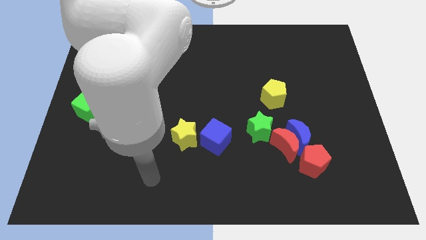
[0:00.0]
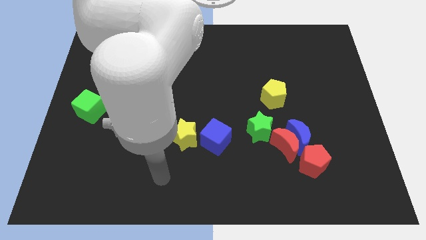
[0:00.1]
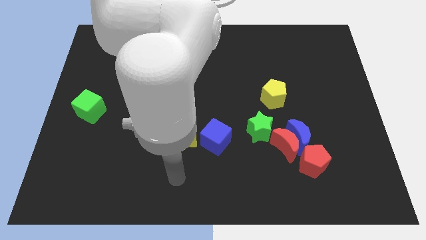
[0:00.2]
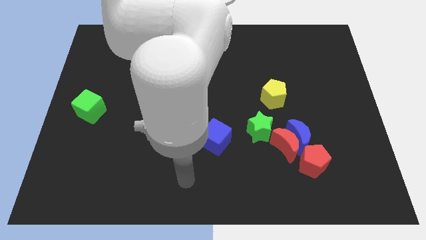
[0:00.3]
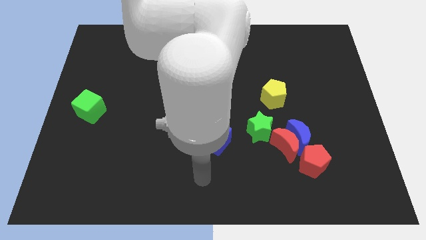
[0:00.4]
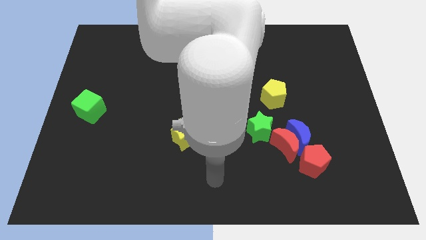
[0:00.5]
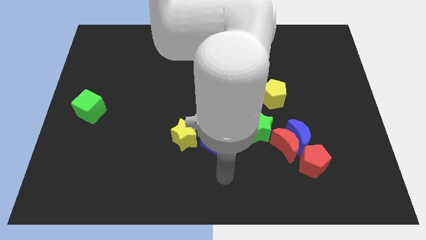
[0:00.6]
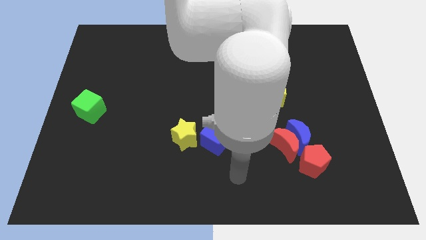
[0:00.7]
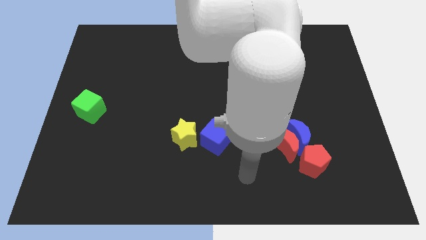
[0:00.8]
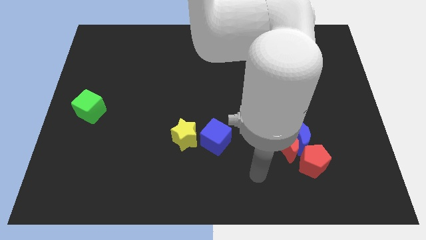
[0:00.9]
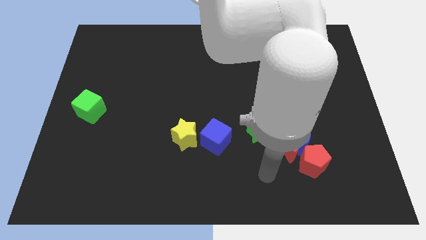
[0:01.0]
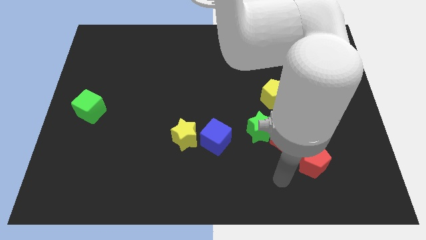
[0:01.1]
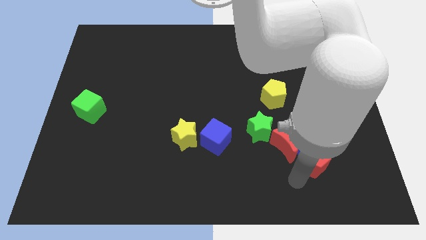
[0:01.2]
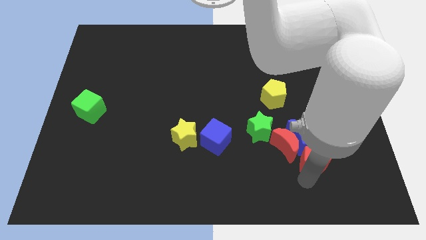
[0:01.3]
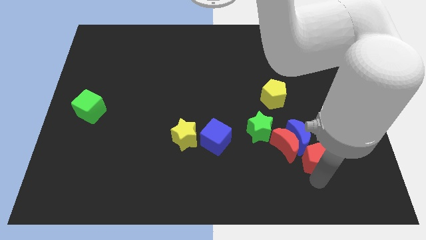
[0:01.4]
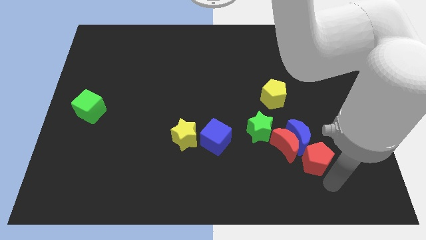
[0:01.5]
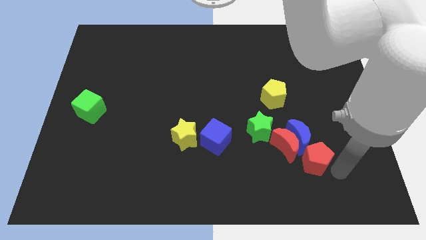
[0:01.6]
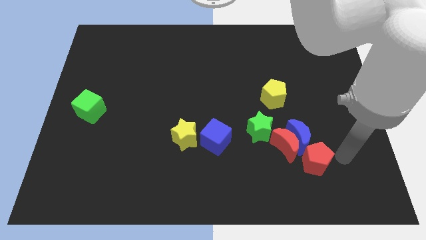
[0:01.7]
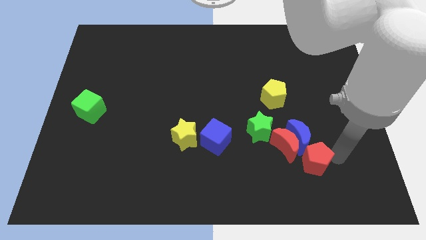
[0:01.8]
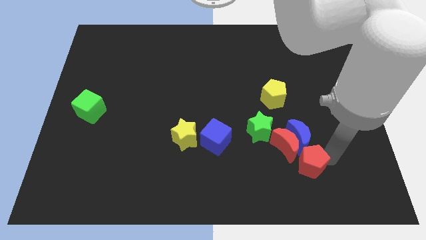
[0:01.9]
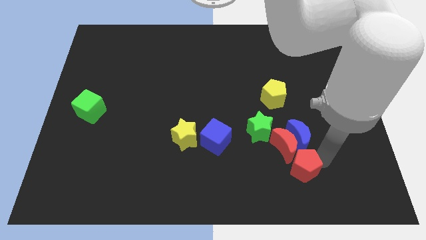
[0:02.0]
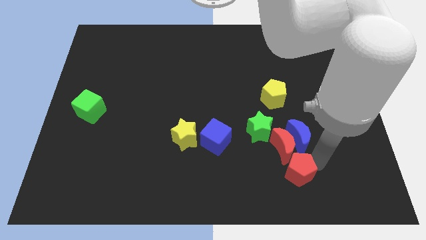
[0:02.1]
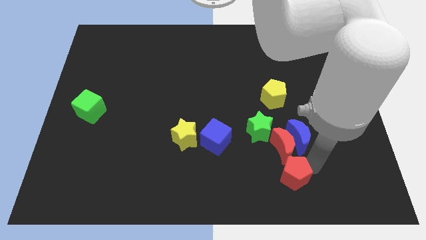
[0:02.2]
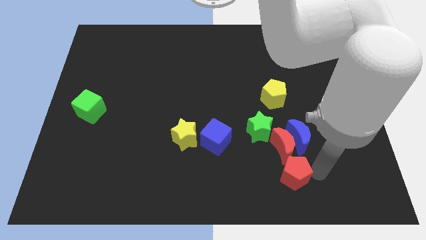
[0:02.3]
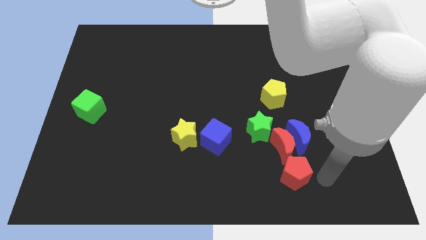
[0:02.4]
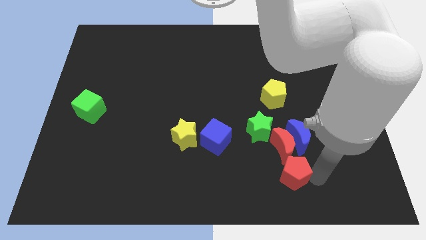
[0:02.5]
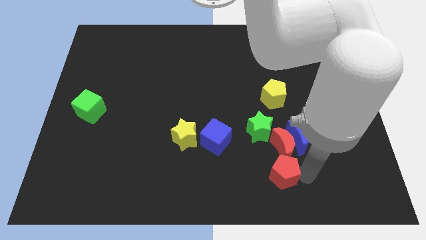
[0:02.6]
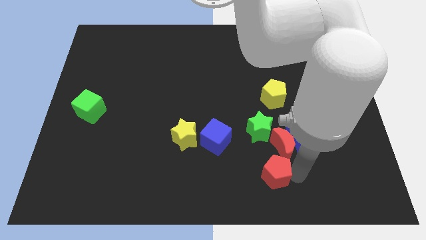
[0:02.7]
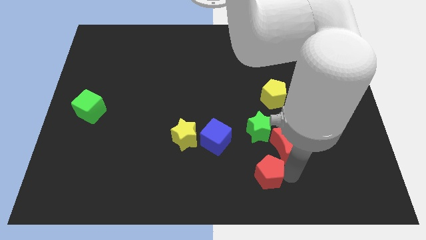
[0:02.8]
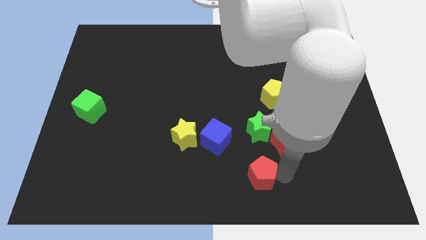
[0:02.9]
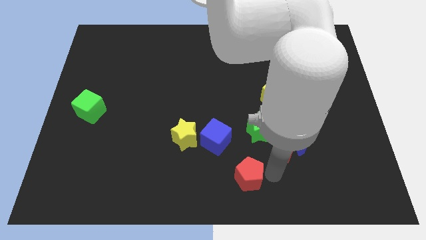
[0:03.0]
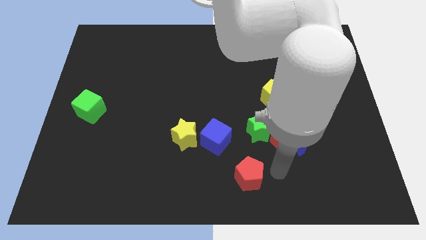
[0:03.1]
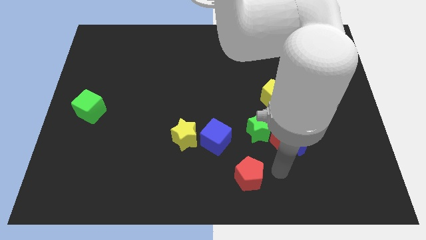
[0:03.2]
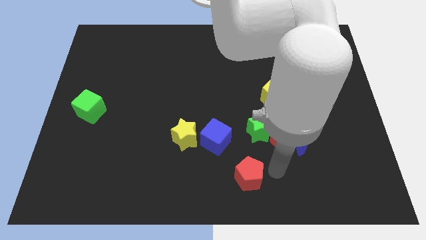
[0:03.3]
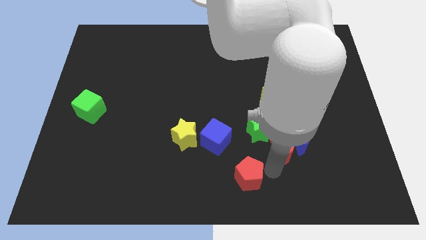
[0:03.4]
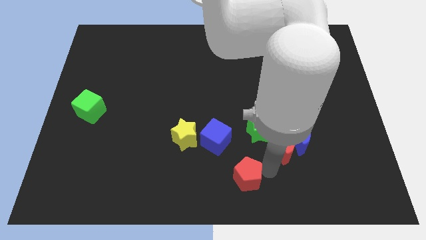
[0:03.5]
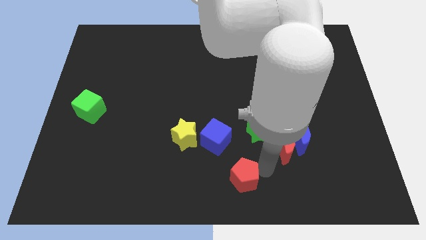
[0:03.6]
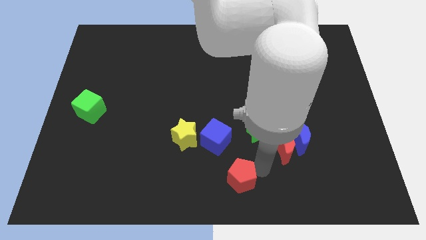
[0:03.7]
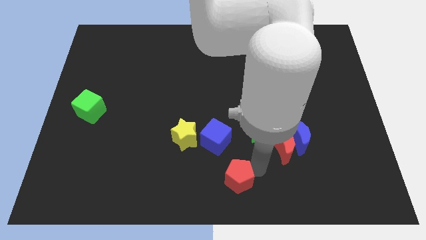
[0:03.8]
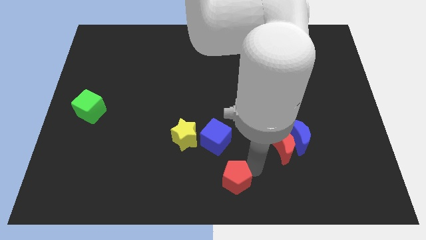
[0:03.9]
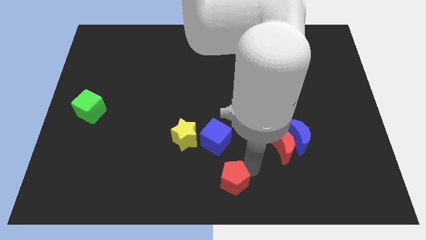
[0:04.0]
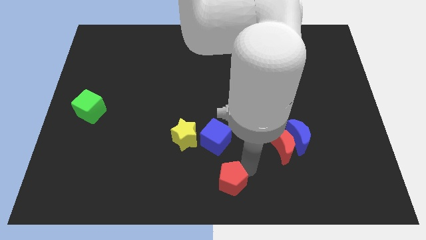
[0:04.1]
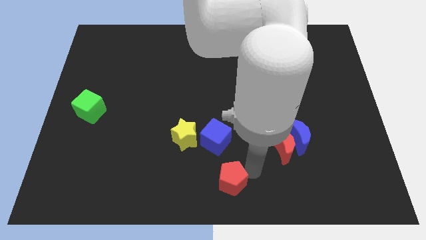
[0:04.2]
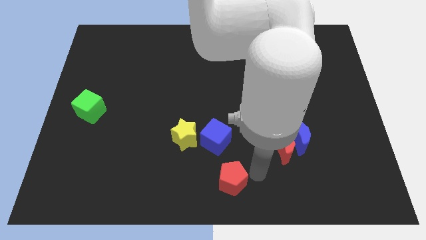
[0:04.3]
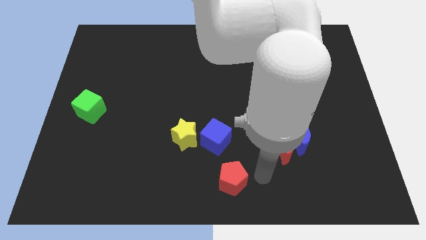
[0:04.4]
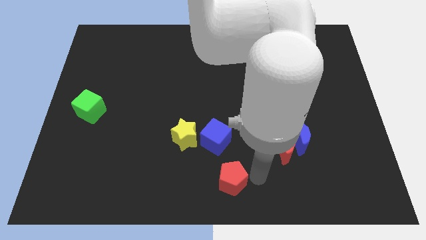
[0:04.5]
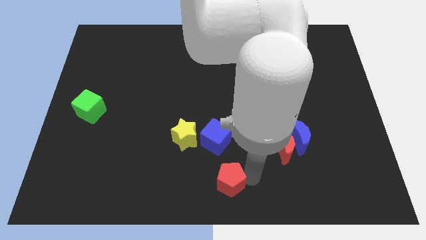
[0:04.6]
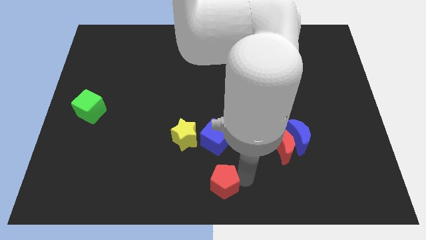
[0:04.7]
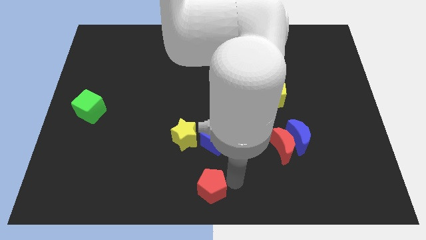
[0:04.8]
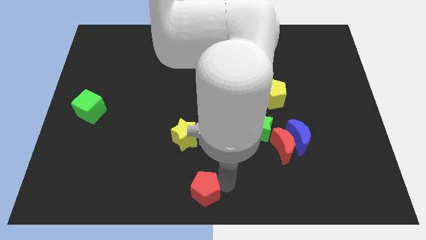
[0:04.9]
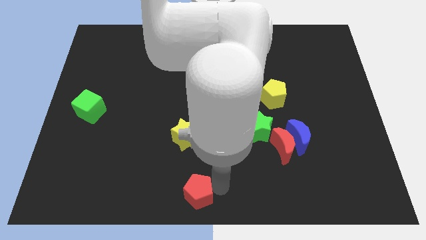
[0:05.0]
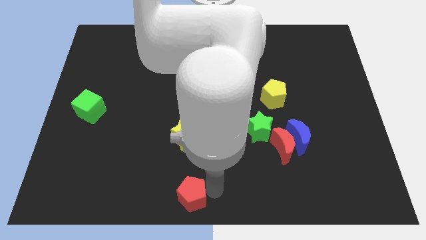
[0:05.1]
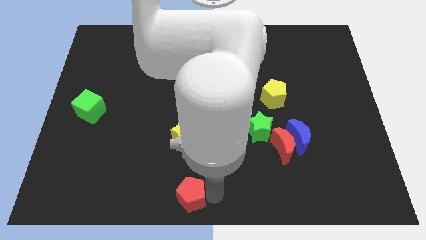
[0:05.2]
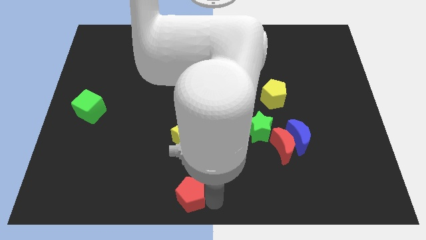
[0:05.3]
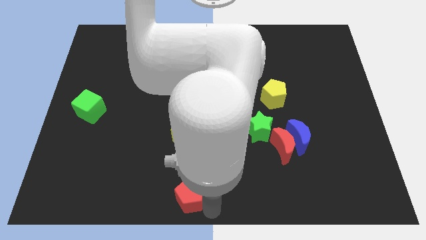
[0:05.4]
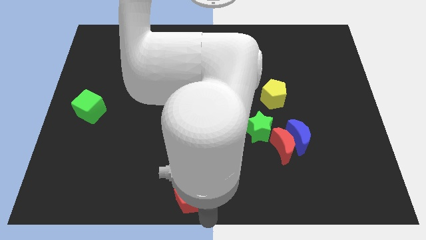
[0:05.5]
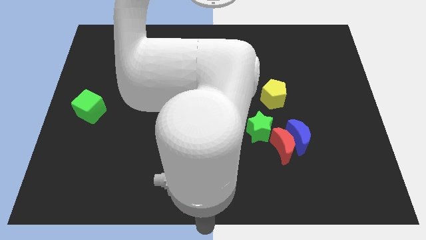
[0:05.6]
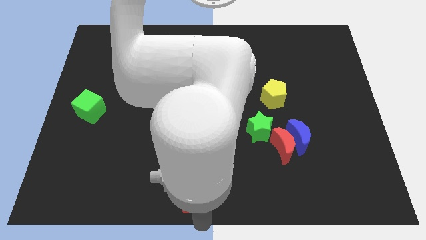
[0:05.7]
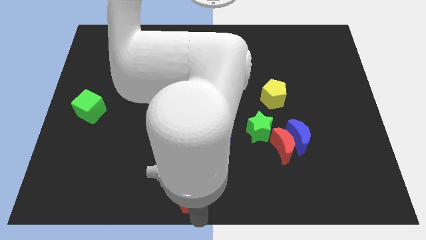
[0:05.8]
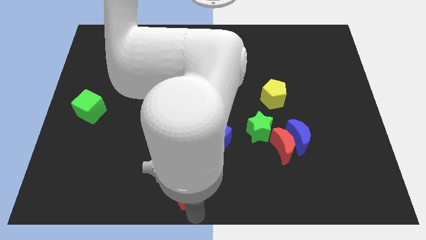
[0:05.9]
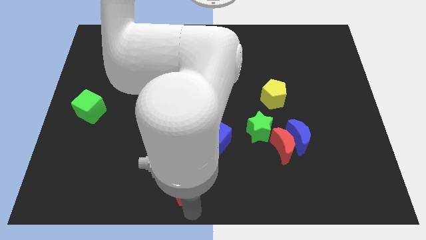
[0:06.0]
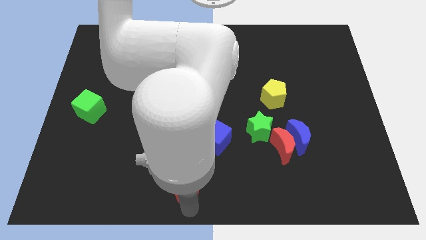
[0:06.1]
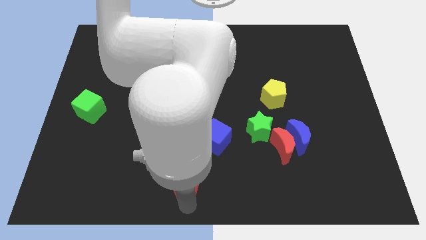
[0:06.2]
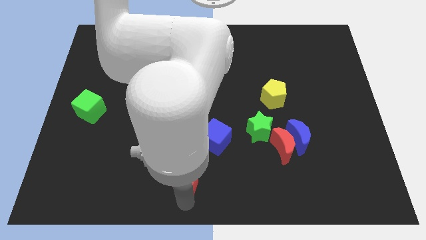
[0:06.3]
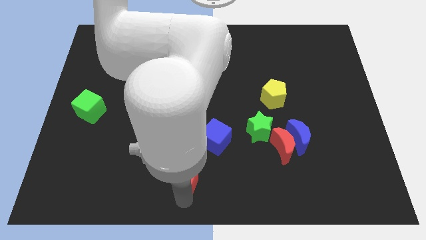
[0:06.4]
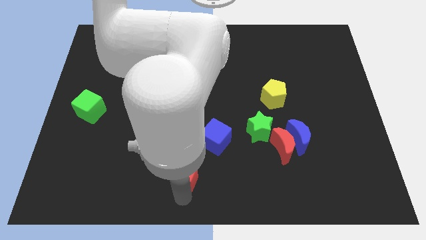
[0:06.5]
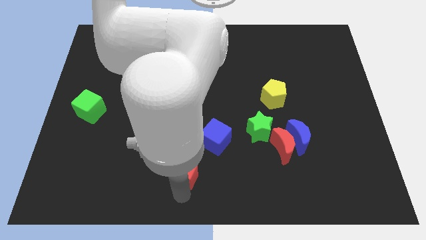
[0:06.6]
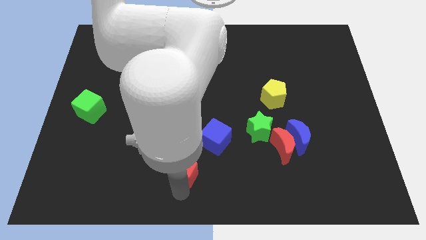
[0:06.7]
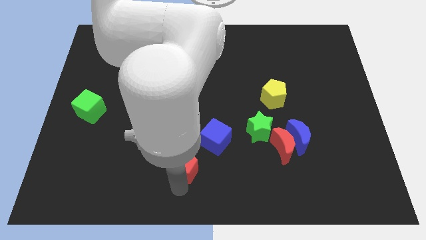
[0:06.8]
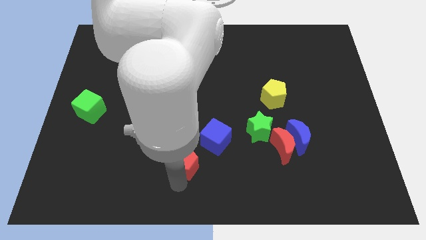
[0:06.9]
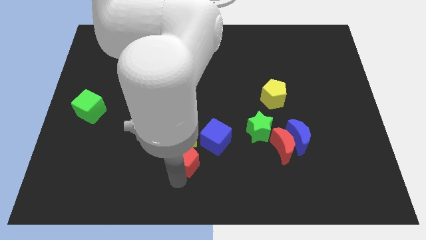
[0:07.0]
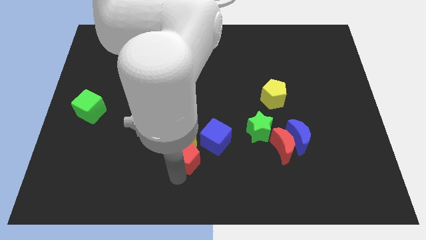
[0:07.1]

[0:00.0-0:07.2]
push the red pentagon to the left side of the blue cube
